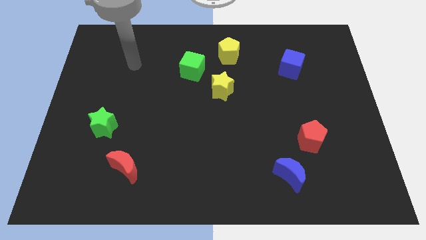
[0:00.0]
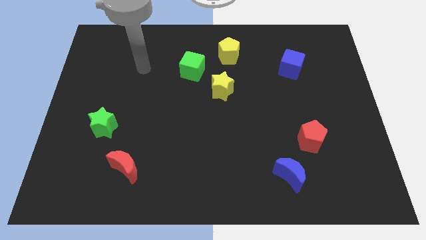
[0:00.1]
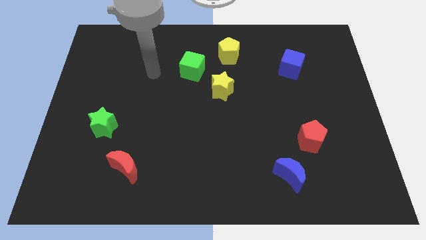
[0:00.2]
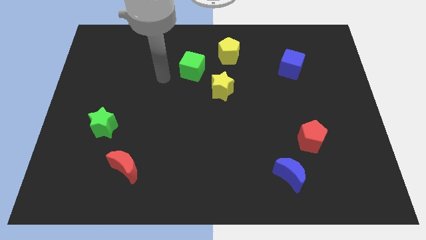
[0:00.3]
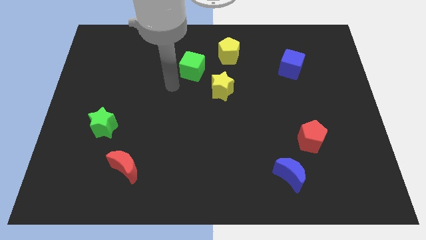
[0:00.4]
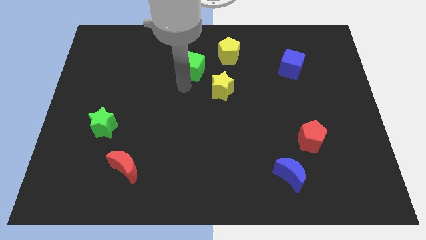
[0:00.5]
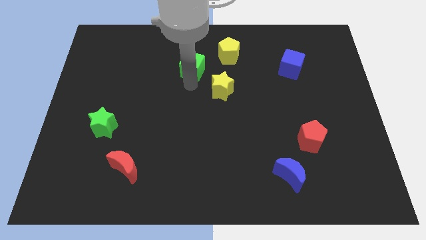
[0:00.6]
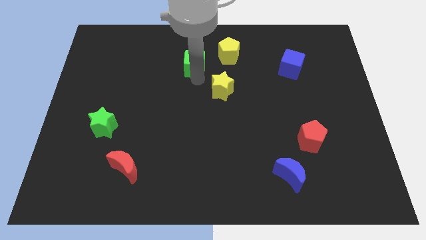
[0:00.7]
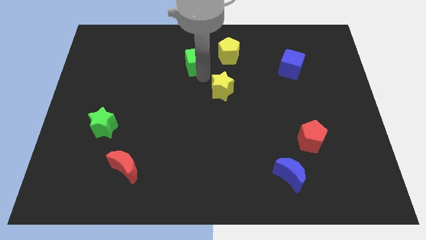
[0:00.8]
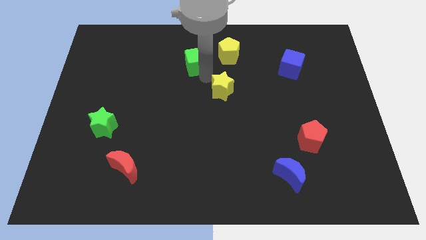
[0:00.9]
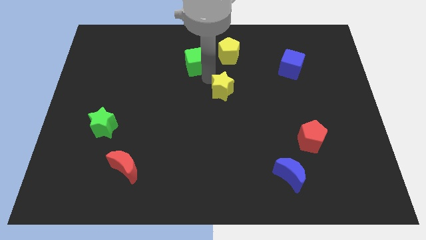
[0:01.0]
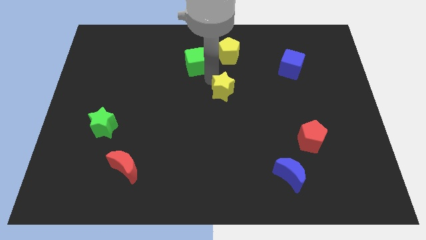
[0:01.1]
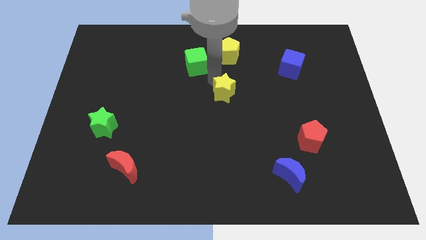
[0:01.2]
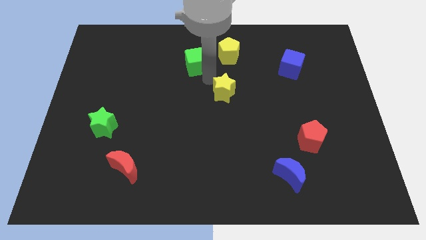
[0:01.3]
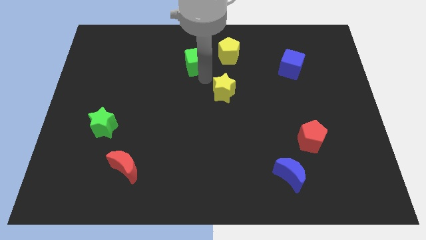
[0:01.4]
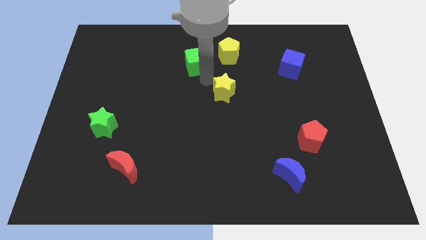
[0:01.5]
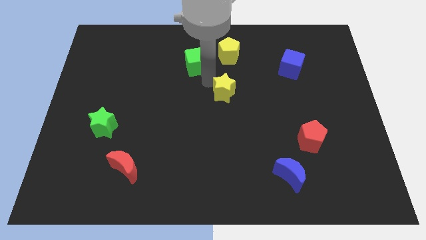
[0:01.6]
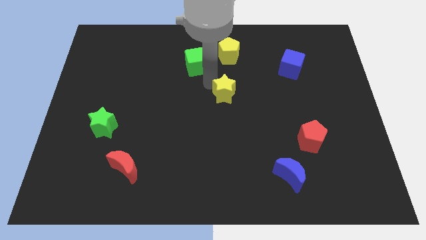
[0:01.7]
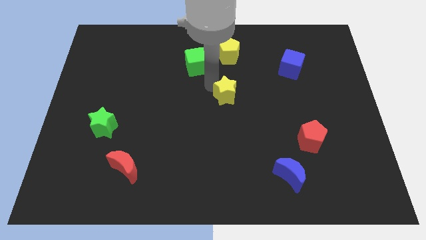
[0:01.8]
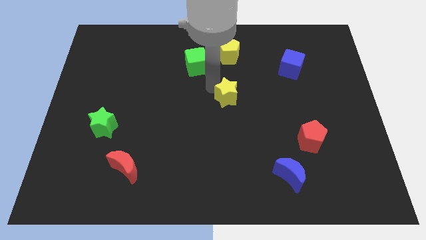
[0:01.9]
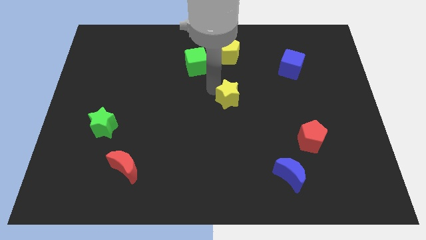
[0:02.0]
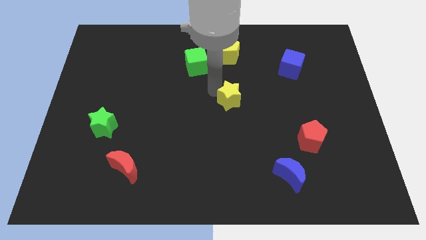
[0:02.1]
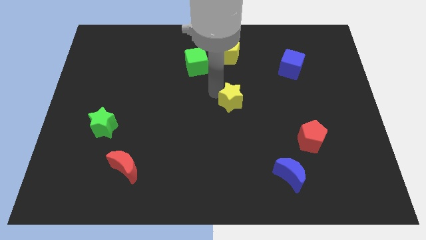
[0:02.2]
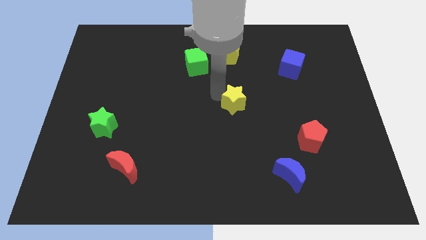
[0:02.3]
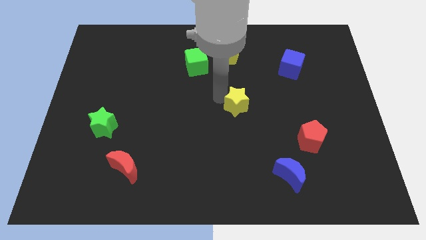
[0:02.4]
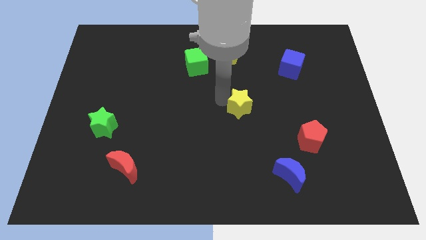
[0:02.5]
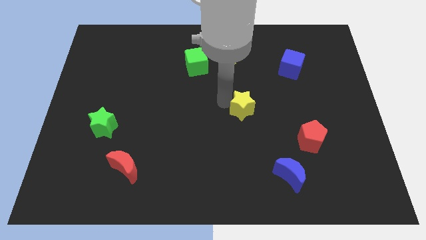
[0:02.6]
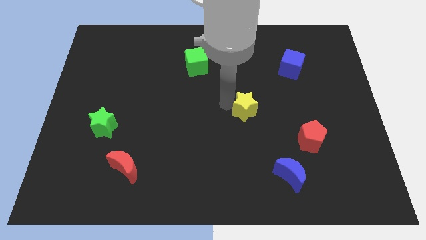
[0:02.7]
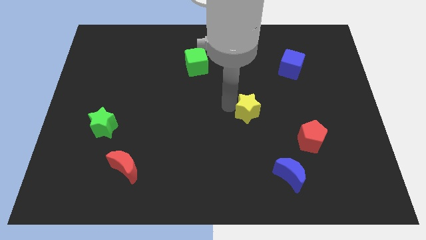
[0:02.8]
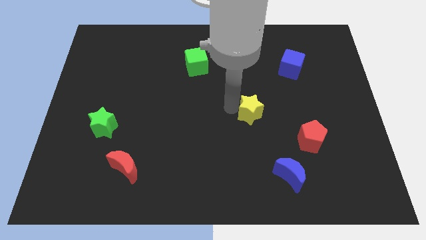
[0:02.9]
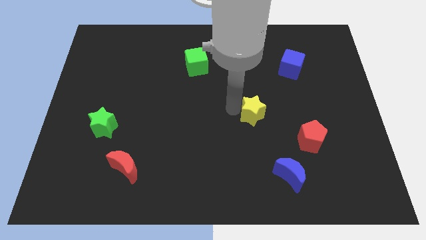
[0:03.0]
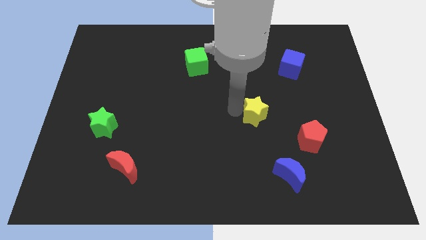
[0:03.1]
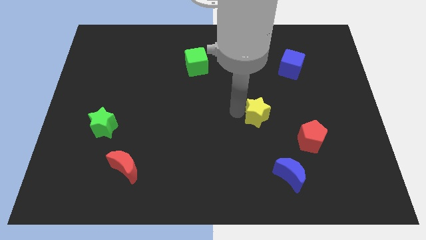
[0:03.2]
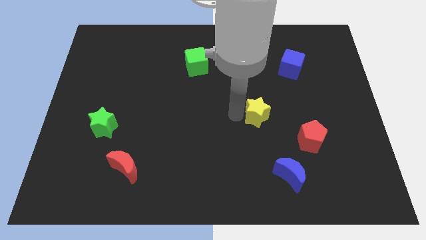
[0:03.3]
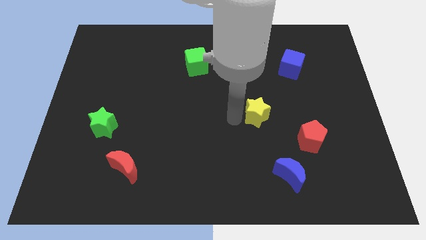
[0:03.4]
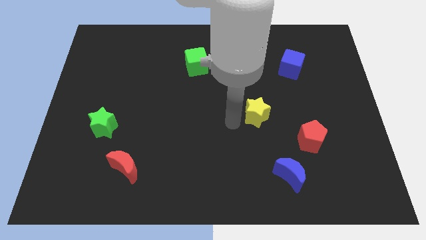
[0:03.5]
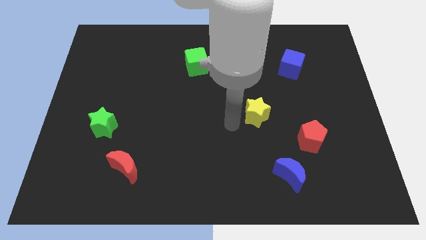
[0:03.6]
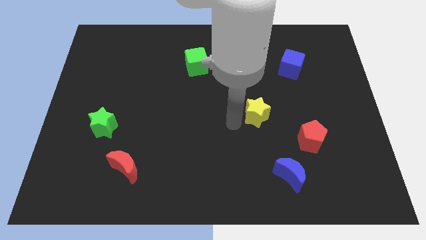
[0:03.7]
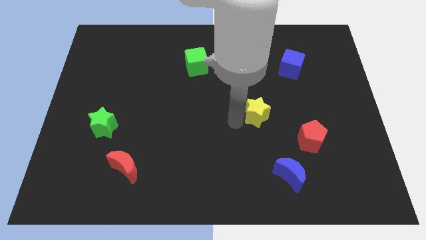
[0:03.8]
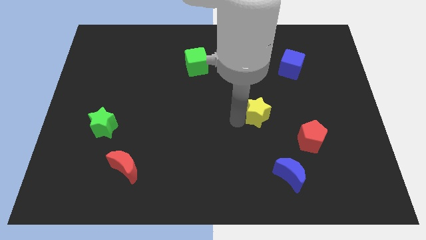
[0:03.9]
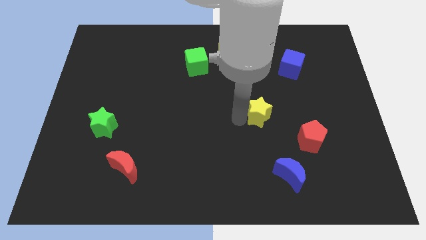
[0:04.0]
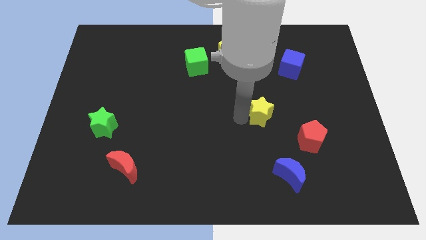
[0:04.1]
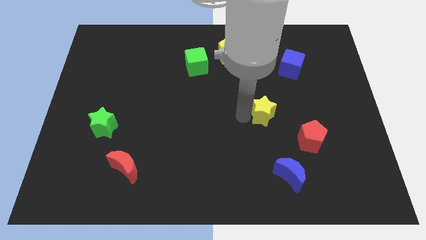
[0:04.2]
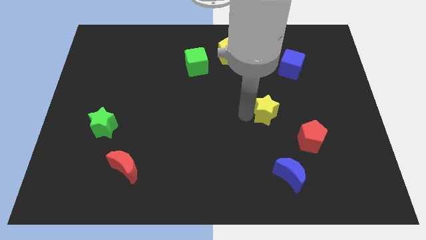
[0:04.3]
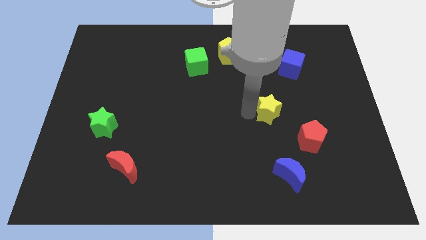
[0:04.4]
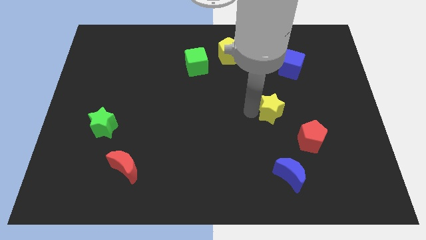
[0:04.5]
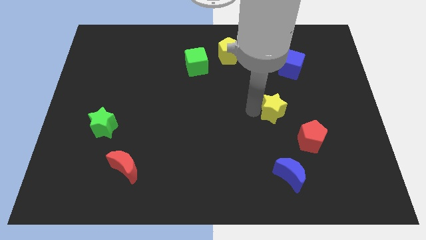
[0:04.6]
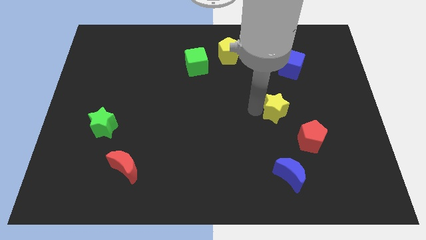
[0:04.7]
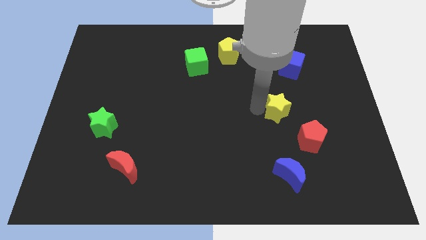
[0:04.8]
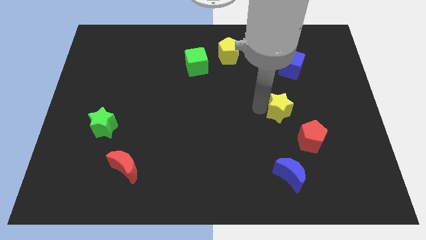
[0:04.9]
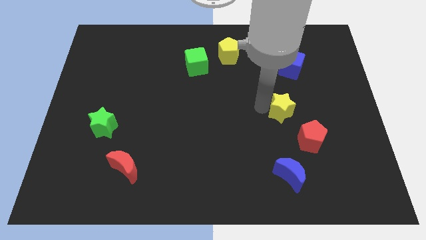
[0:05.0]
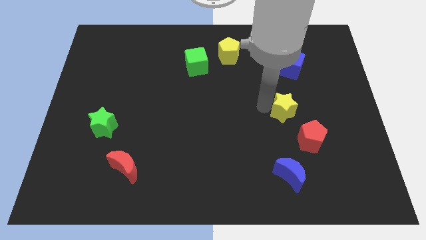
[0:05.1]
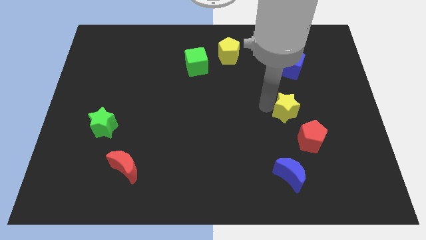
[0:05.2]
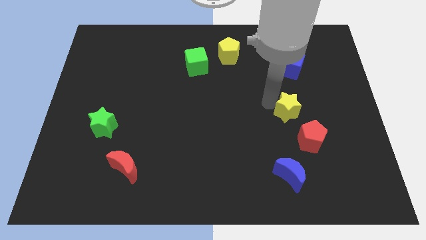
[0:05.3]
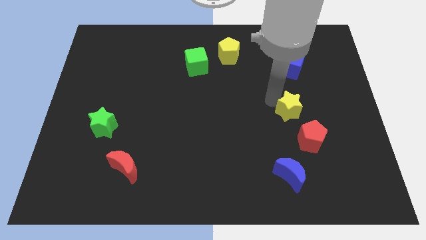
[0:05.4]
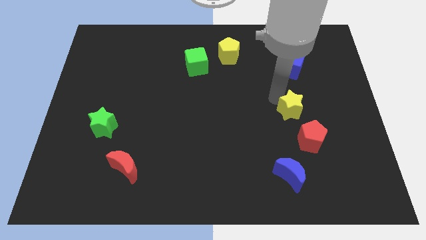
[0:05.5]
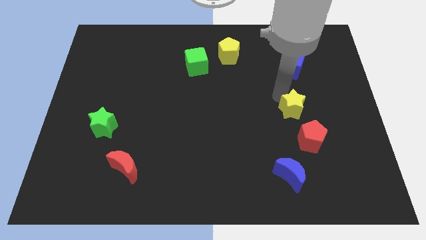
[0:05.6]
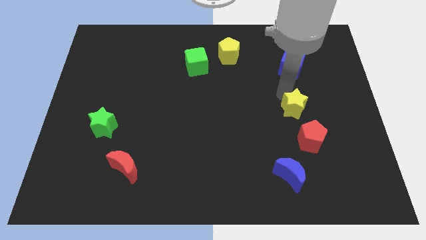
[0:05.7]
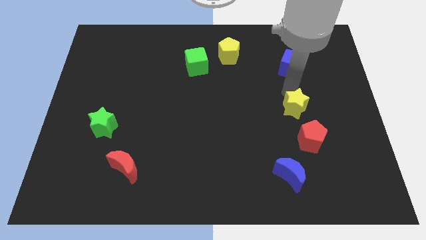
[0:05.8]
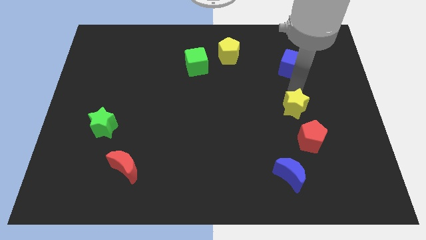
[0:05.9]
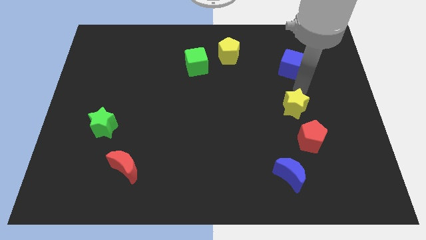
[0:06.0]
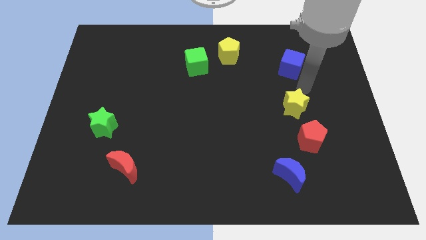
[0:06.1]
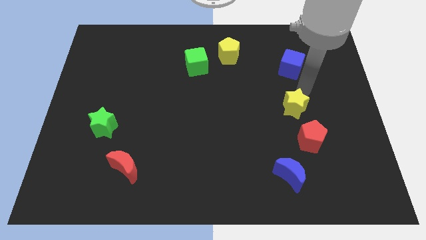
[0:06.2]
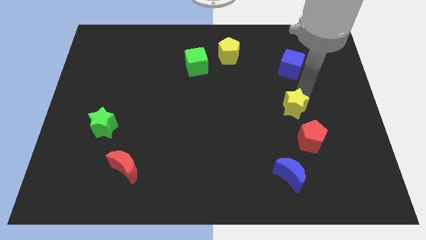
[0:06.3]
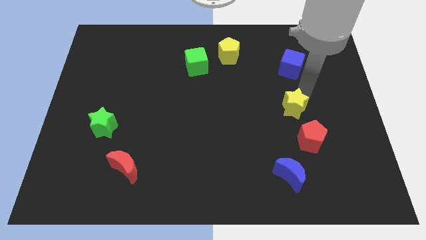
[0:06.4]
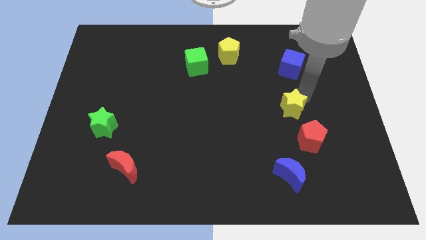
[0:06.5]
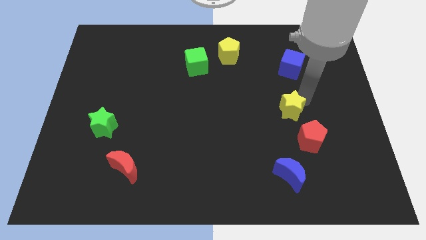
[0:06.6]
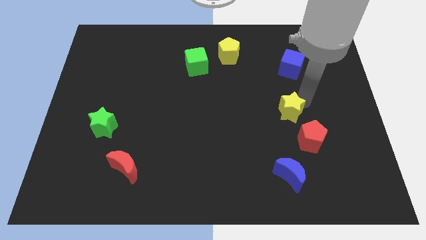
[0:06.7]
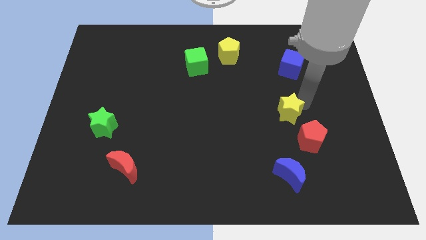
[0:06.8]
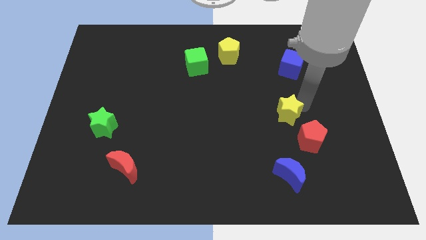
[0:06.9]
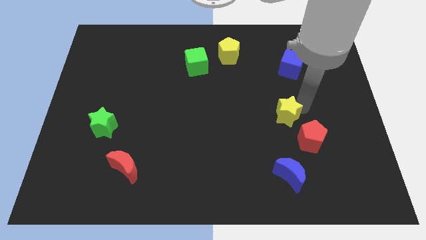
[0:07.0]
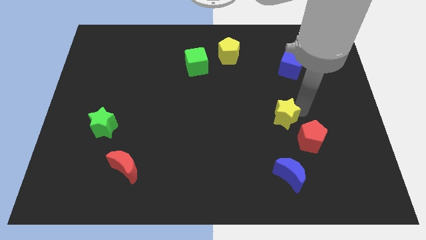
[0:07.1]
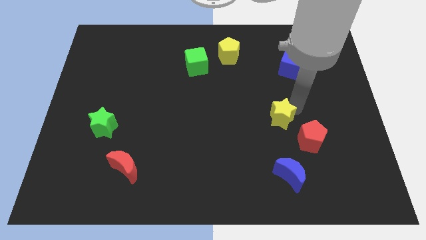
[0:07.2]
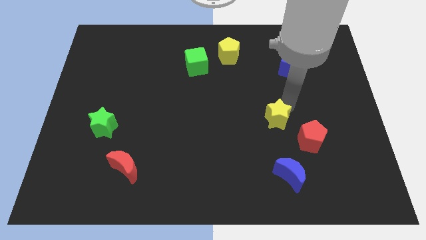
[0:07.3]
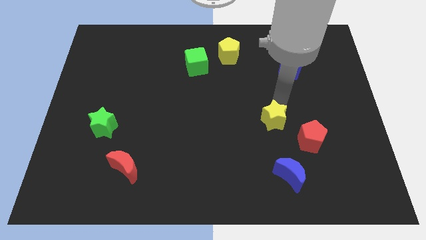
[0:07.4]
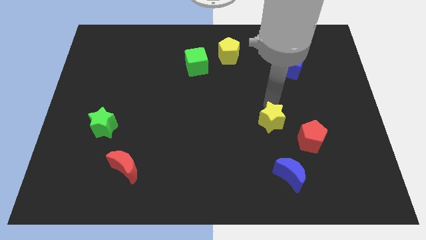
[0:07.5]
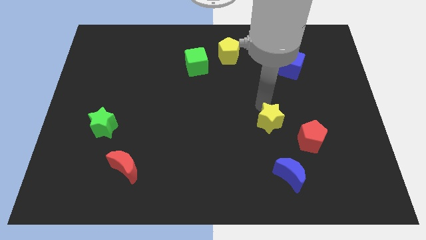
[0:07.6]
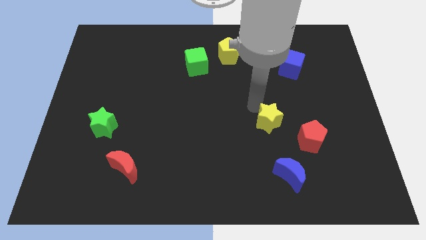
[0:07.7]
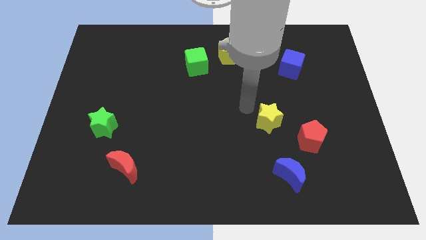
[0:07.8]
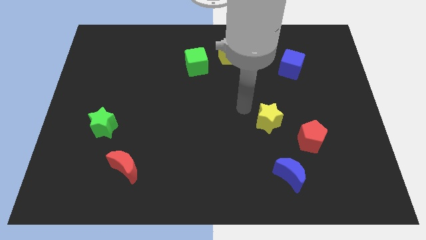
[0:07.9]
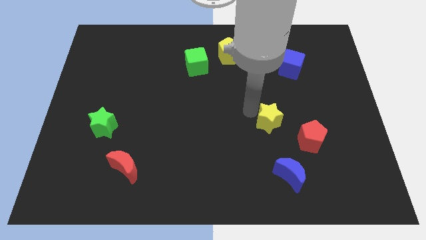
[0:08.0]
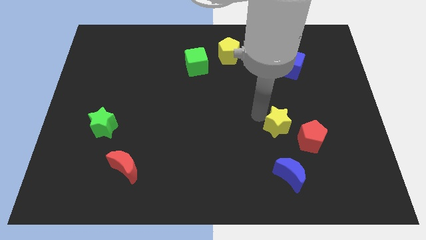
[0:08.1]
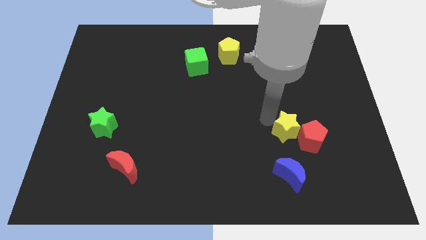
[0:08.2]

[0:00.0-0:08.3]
slide the yellow star towards the red pentagon
